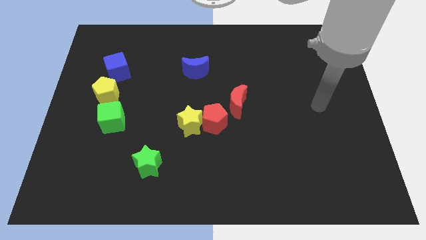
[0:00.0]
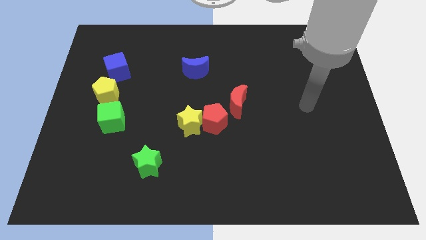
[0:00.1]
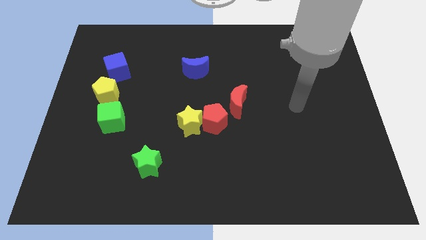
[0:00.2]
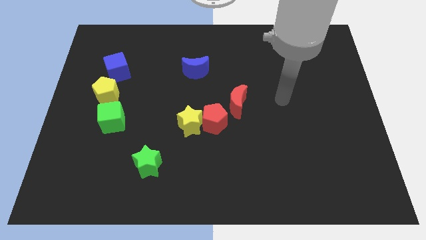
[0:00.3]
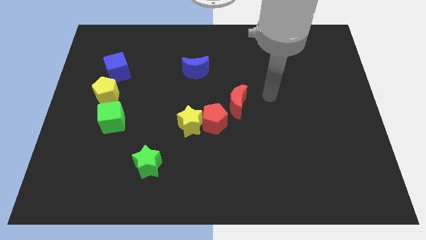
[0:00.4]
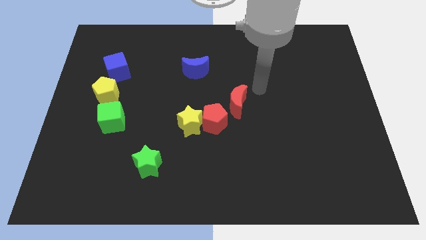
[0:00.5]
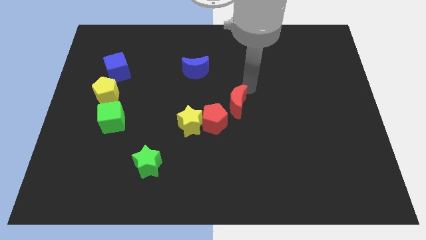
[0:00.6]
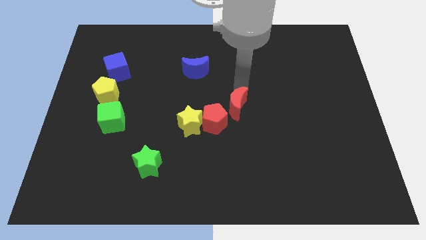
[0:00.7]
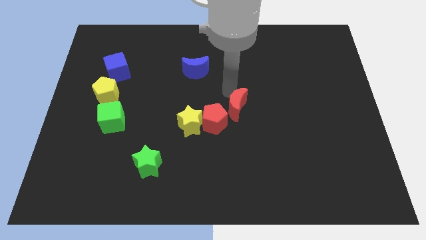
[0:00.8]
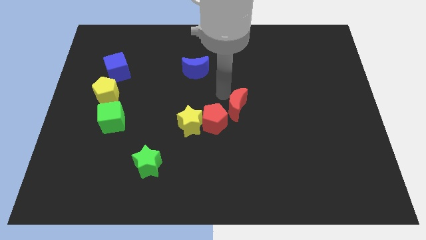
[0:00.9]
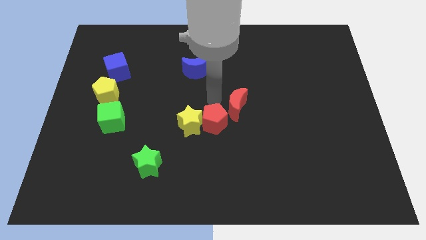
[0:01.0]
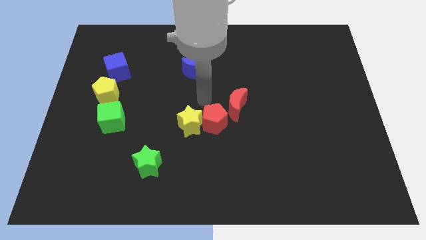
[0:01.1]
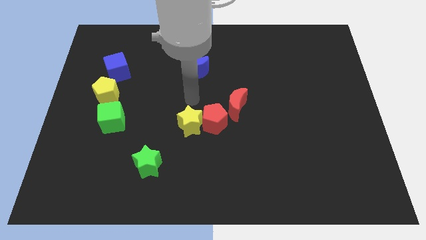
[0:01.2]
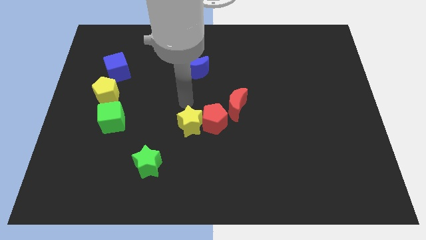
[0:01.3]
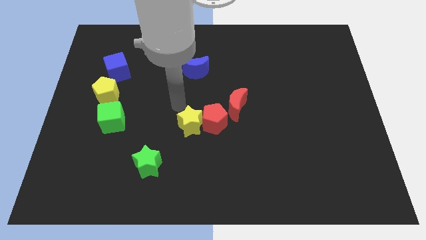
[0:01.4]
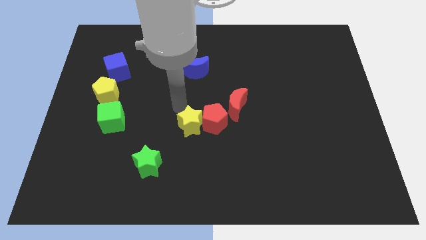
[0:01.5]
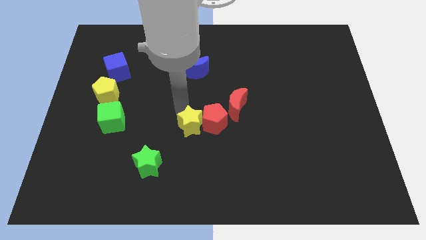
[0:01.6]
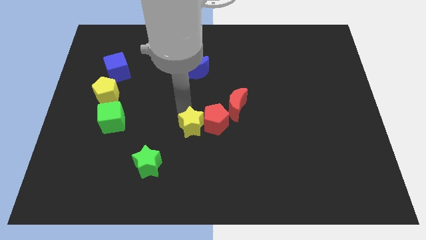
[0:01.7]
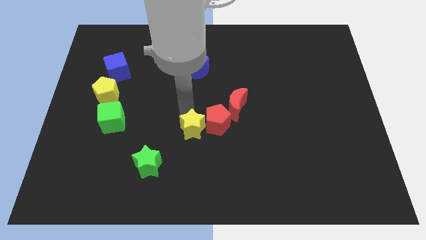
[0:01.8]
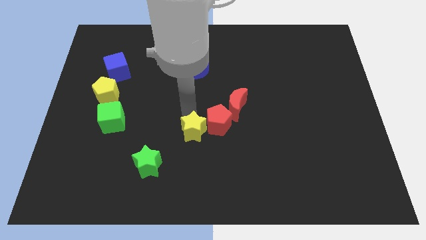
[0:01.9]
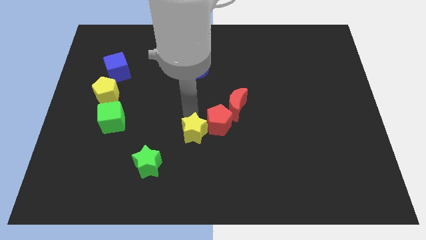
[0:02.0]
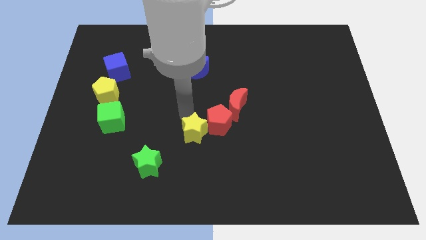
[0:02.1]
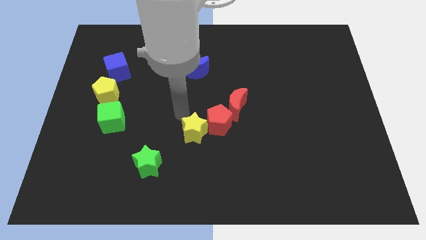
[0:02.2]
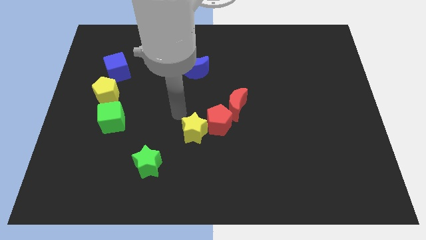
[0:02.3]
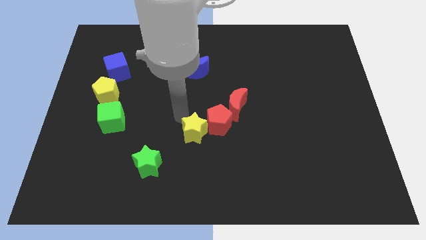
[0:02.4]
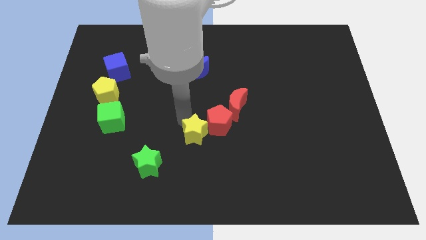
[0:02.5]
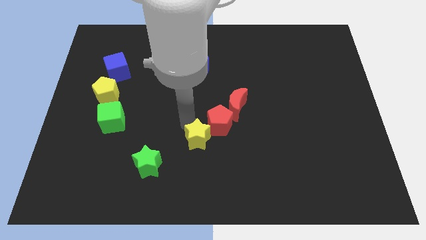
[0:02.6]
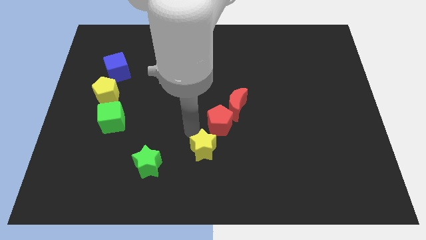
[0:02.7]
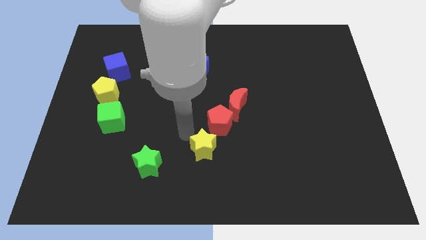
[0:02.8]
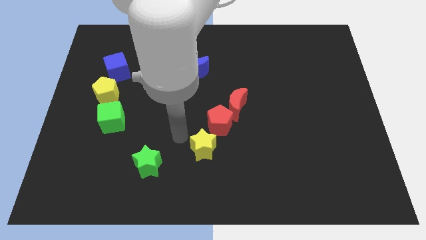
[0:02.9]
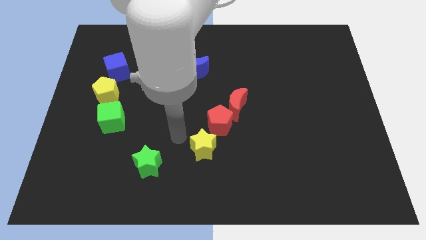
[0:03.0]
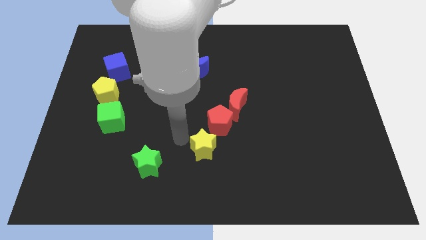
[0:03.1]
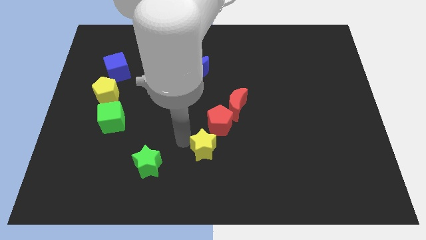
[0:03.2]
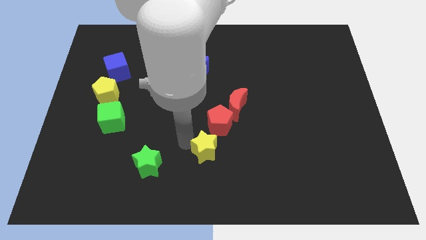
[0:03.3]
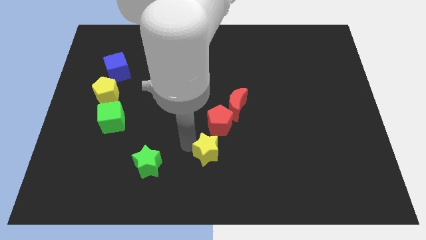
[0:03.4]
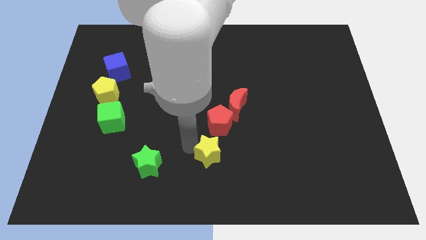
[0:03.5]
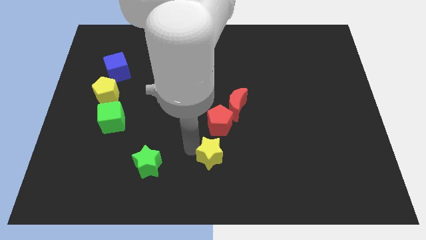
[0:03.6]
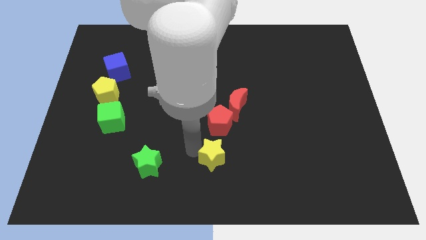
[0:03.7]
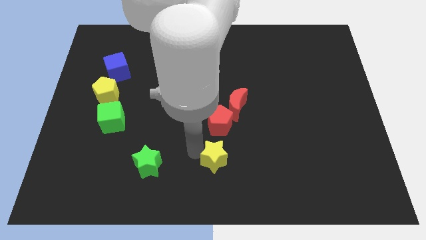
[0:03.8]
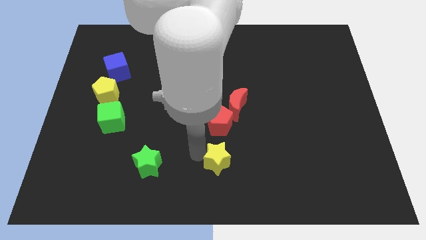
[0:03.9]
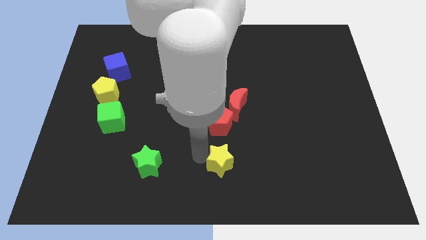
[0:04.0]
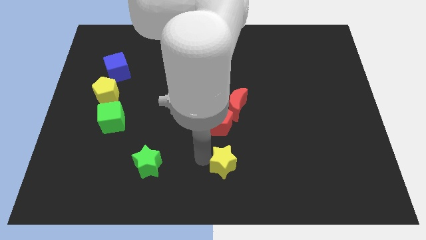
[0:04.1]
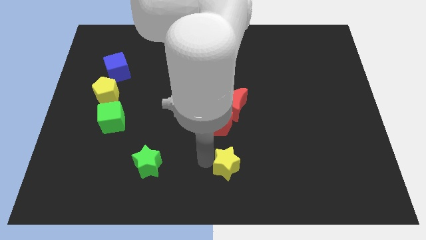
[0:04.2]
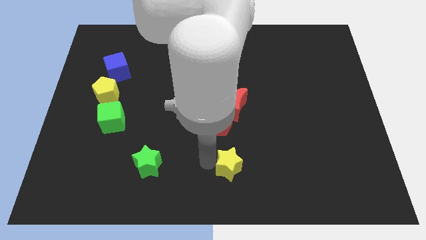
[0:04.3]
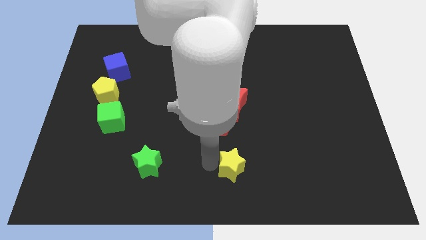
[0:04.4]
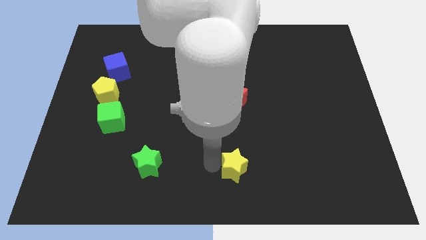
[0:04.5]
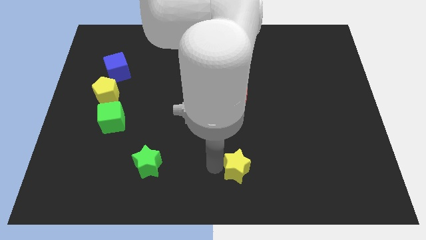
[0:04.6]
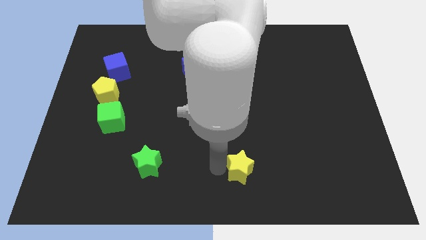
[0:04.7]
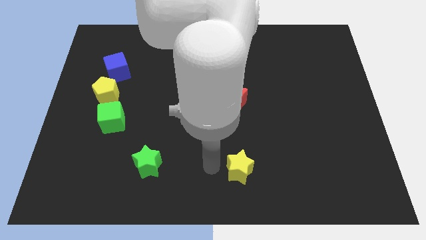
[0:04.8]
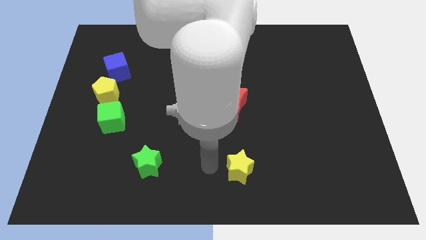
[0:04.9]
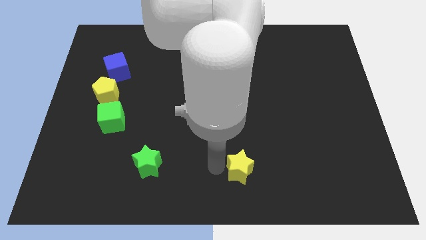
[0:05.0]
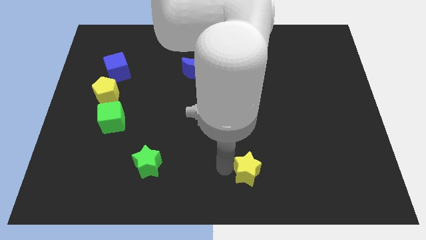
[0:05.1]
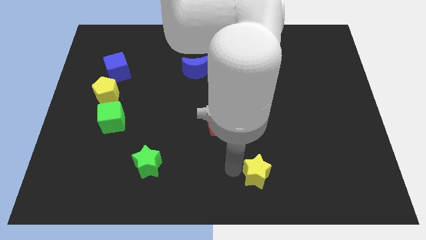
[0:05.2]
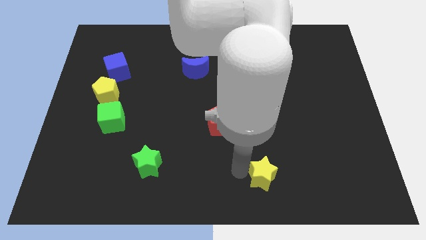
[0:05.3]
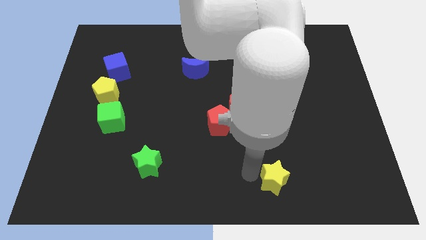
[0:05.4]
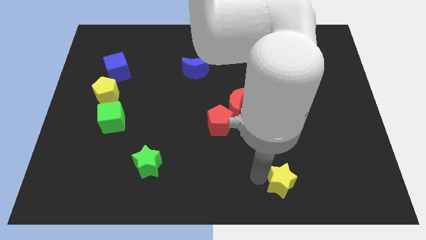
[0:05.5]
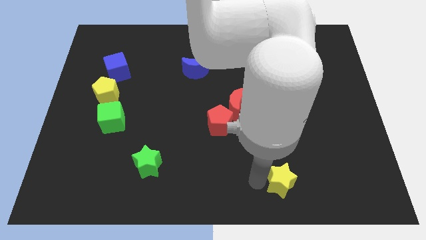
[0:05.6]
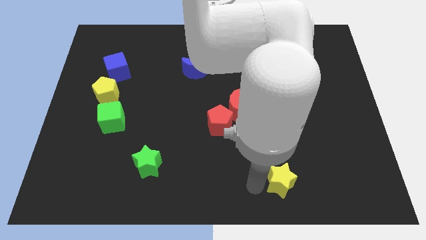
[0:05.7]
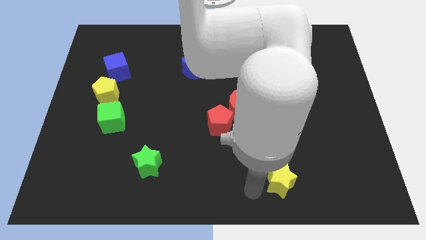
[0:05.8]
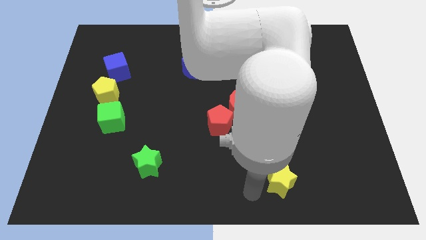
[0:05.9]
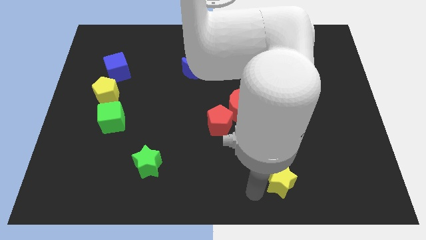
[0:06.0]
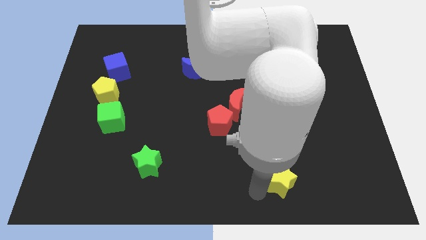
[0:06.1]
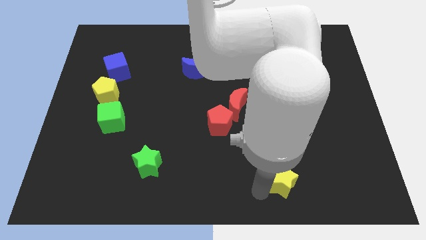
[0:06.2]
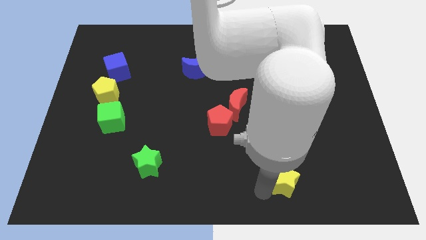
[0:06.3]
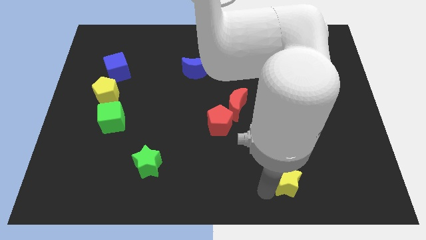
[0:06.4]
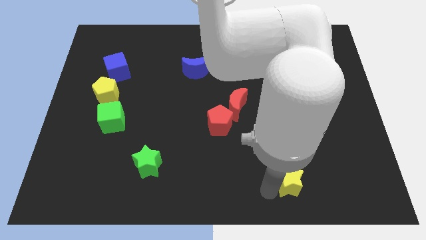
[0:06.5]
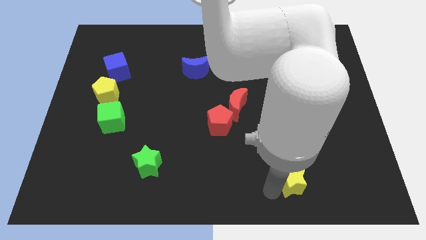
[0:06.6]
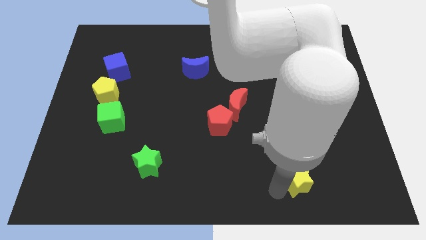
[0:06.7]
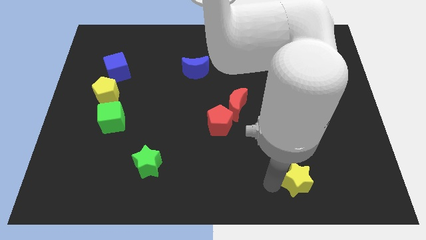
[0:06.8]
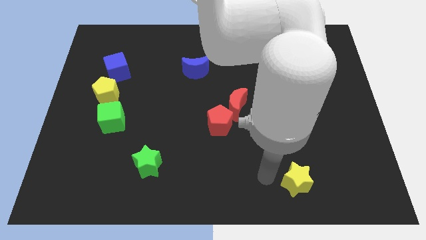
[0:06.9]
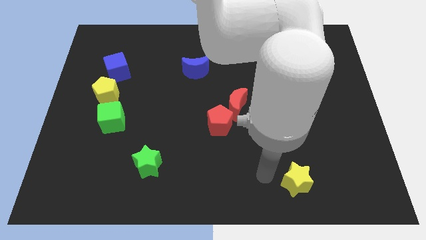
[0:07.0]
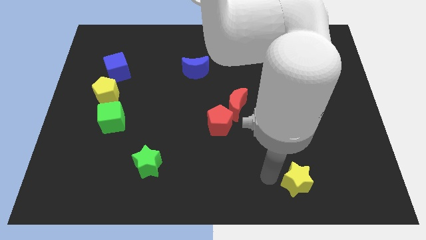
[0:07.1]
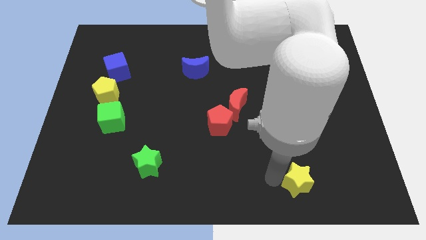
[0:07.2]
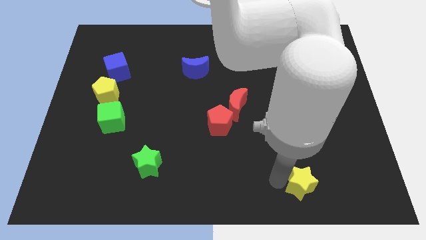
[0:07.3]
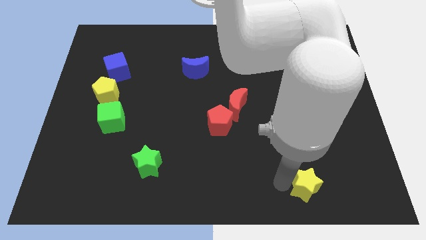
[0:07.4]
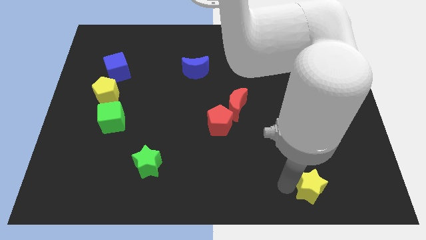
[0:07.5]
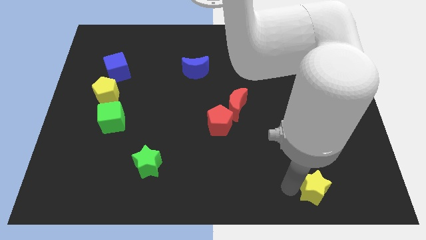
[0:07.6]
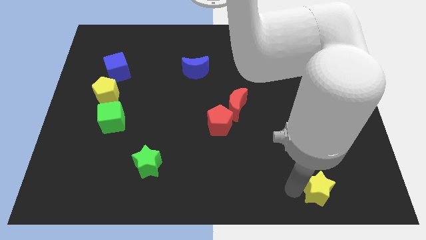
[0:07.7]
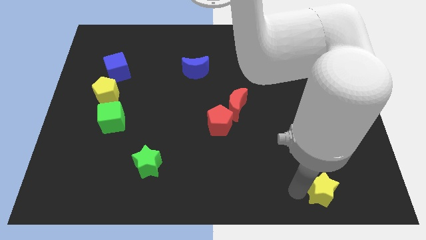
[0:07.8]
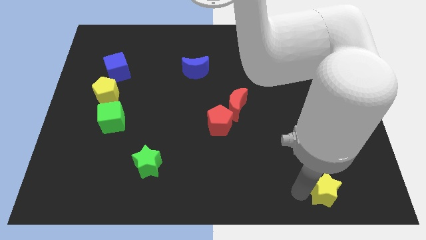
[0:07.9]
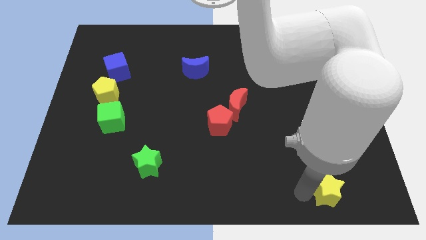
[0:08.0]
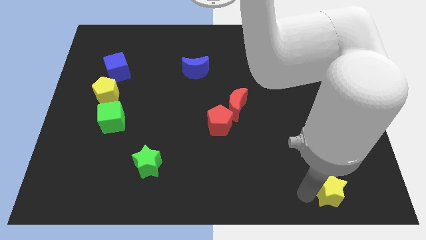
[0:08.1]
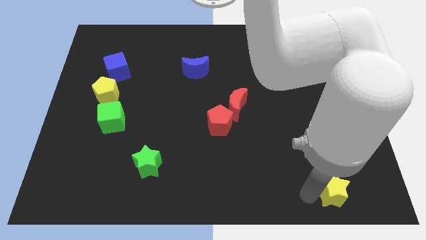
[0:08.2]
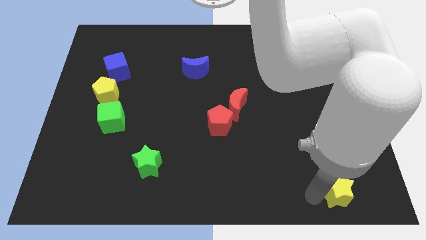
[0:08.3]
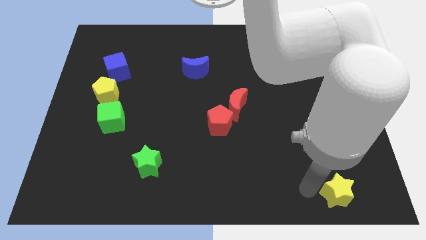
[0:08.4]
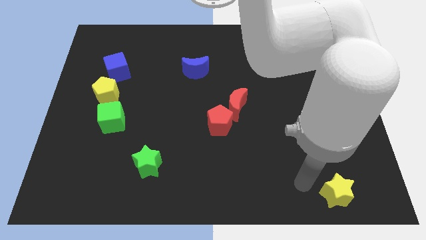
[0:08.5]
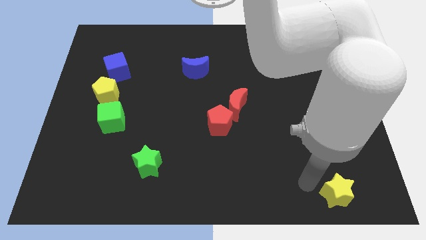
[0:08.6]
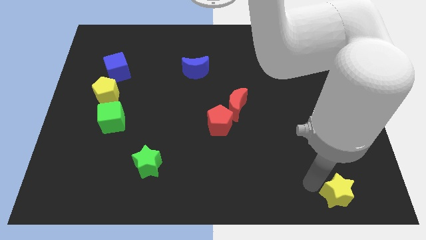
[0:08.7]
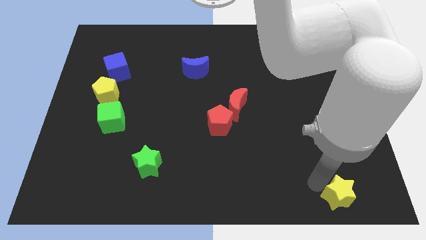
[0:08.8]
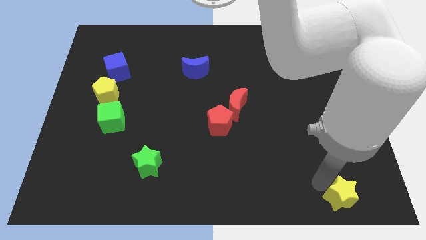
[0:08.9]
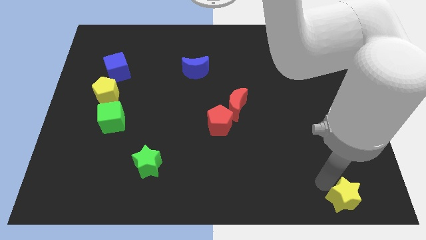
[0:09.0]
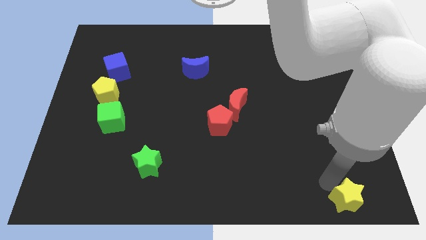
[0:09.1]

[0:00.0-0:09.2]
slide the yellow star to the bottom right
